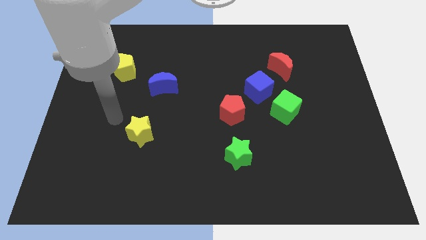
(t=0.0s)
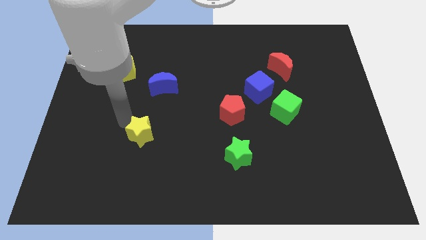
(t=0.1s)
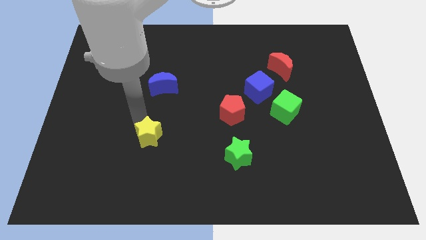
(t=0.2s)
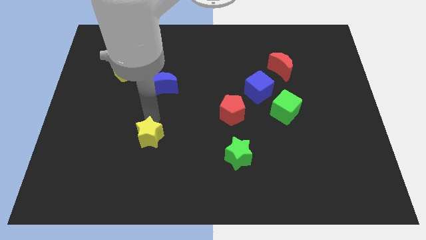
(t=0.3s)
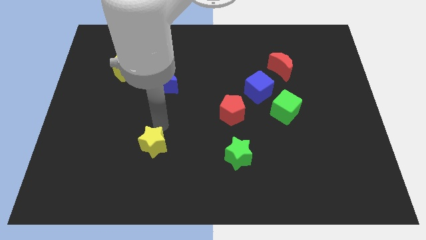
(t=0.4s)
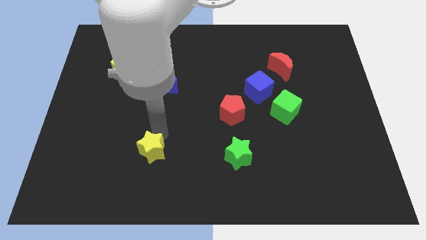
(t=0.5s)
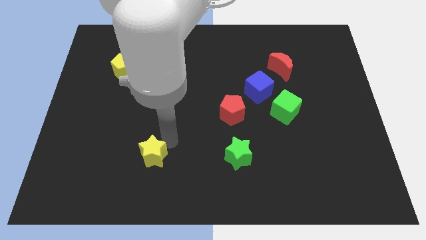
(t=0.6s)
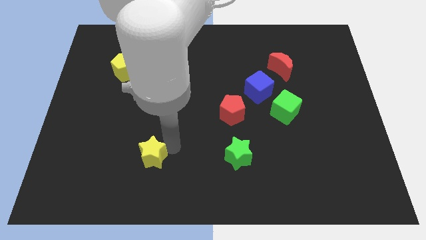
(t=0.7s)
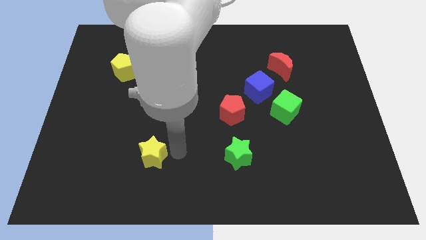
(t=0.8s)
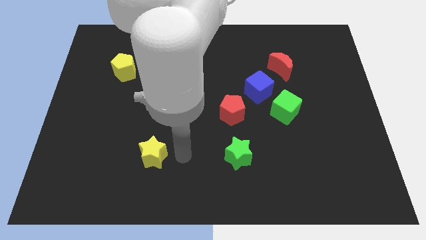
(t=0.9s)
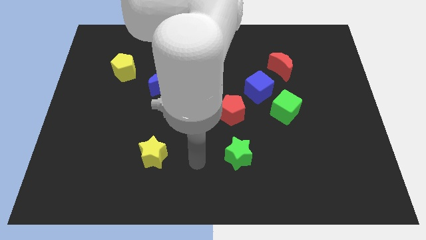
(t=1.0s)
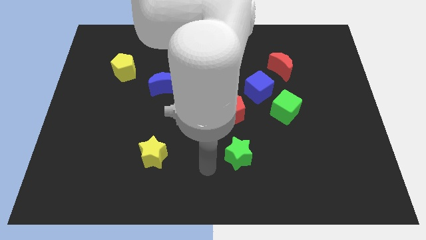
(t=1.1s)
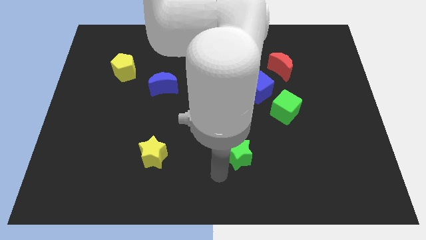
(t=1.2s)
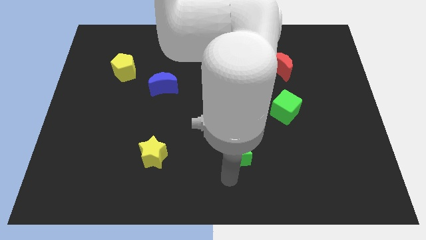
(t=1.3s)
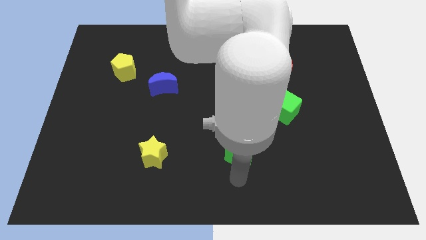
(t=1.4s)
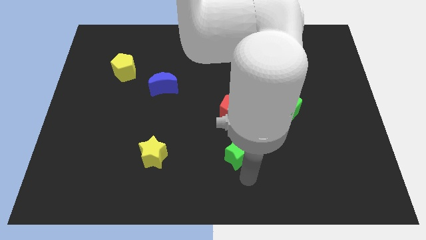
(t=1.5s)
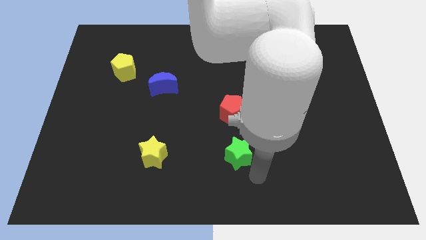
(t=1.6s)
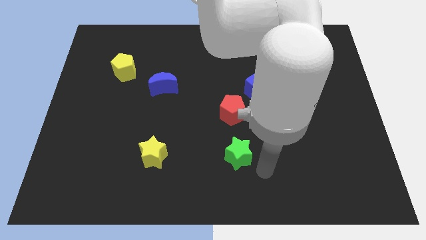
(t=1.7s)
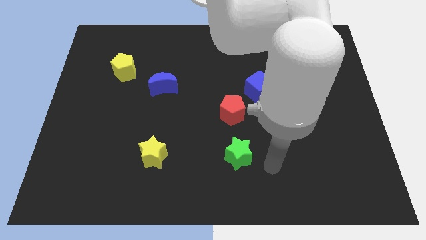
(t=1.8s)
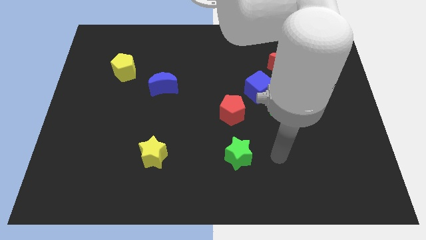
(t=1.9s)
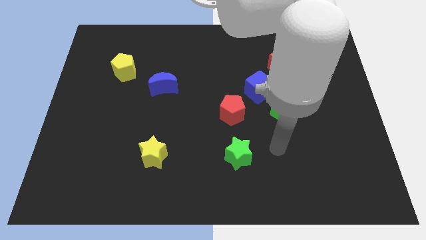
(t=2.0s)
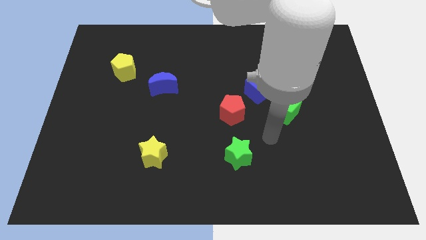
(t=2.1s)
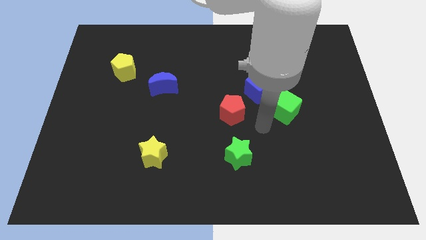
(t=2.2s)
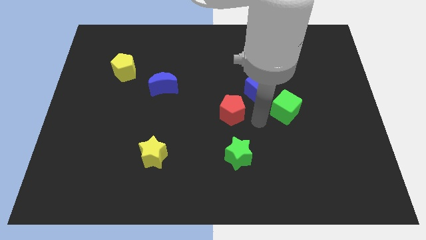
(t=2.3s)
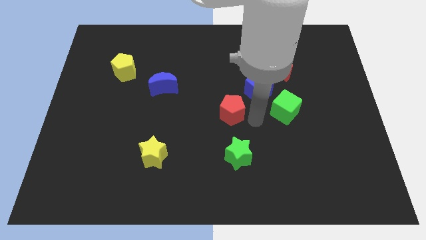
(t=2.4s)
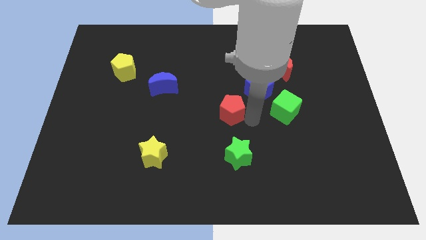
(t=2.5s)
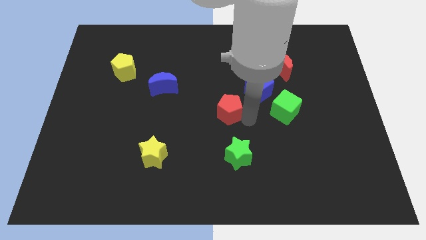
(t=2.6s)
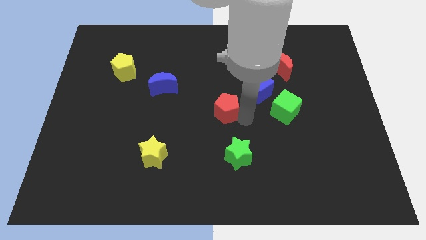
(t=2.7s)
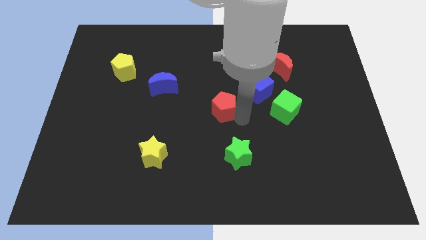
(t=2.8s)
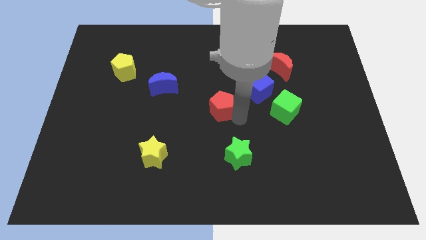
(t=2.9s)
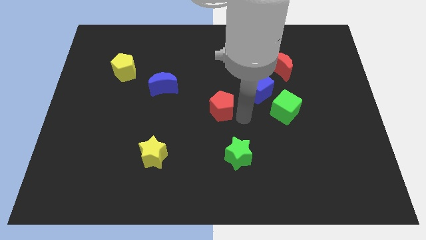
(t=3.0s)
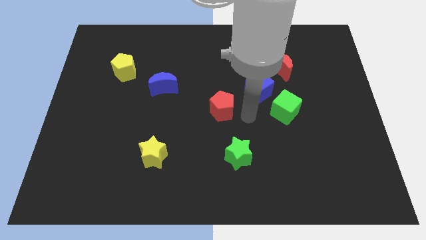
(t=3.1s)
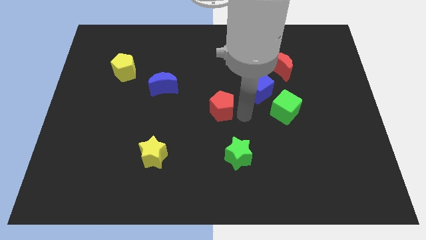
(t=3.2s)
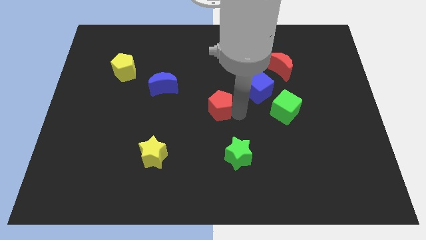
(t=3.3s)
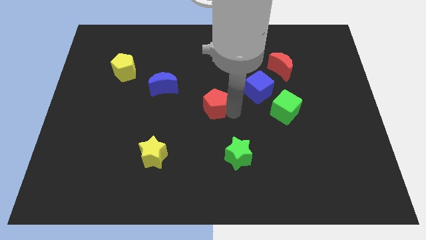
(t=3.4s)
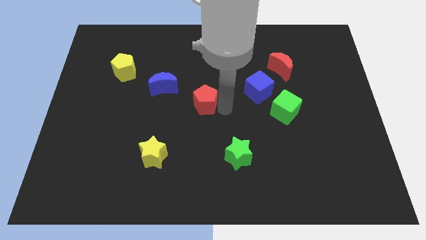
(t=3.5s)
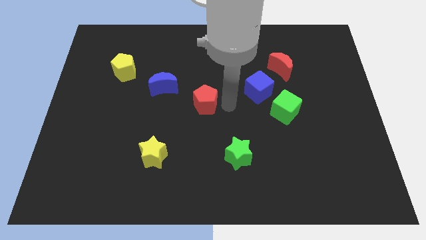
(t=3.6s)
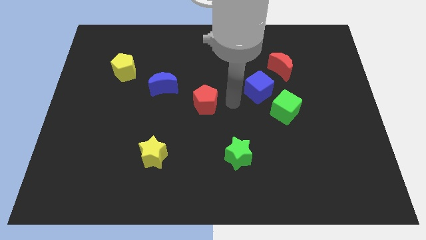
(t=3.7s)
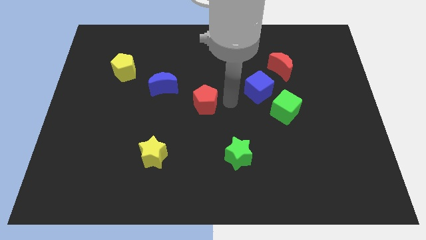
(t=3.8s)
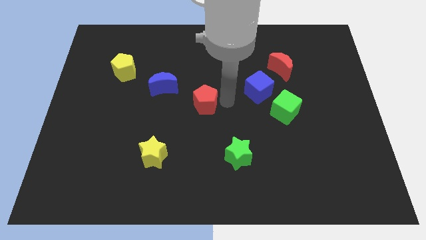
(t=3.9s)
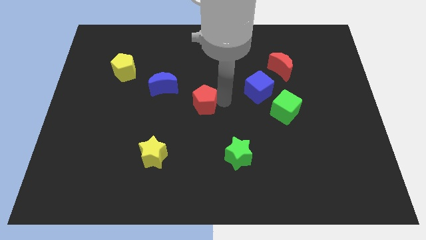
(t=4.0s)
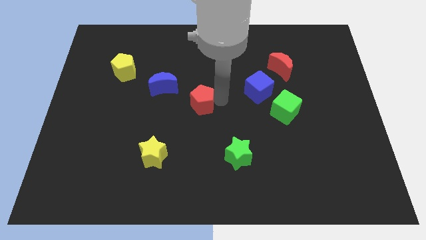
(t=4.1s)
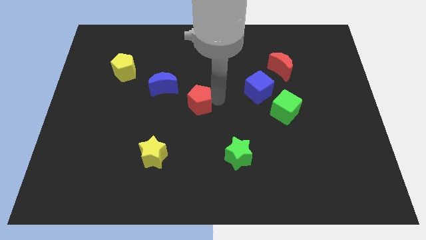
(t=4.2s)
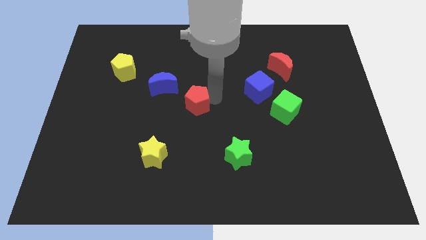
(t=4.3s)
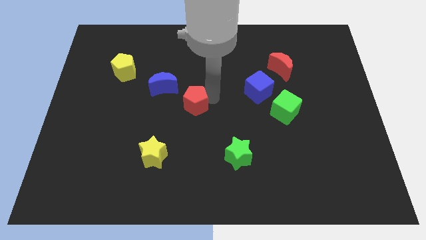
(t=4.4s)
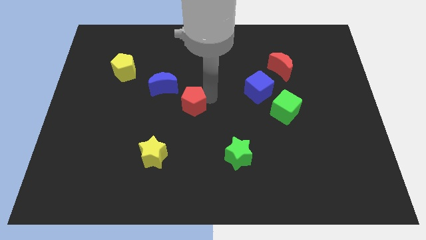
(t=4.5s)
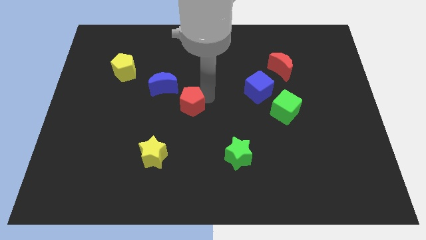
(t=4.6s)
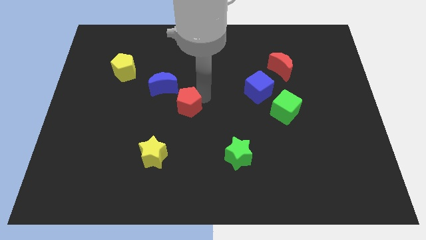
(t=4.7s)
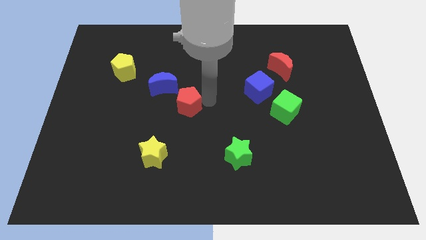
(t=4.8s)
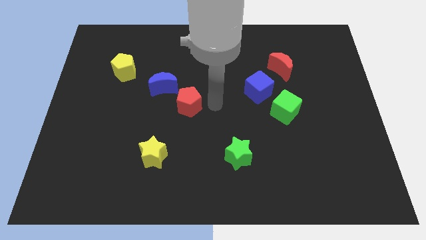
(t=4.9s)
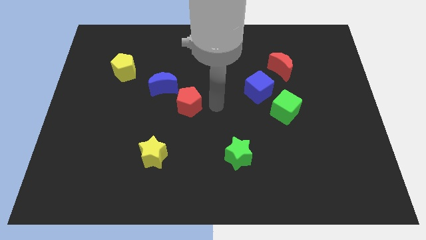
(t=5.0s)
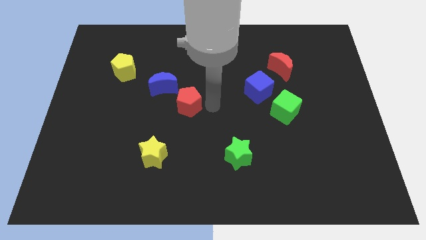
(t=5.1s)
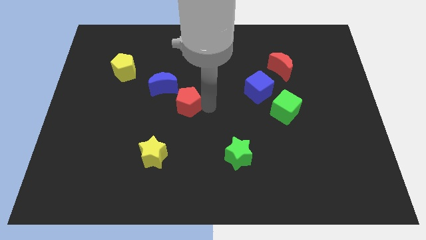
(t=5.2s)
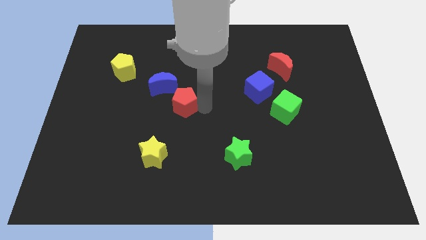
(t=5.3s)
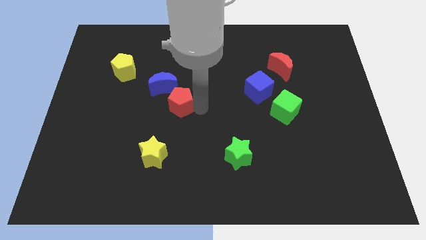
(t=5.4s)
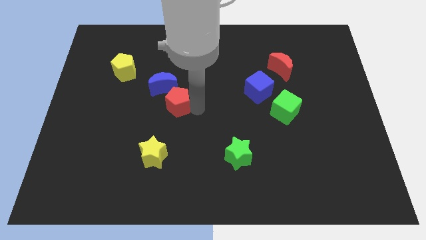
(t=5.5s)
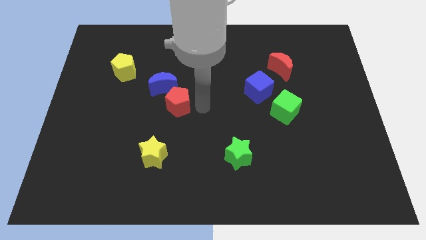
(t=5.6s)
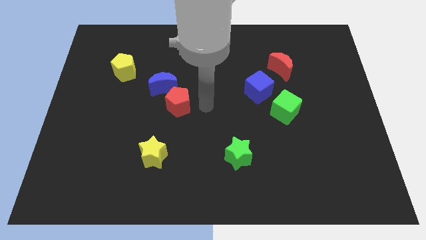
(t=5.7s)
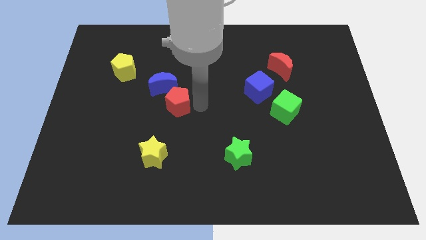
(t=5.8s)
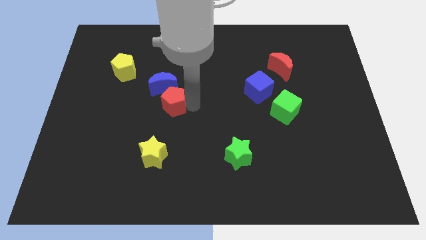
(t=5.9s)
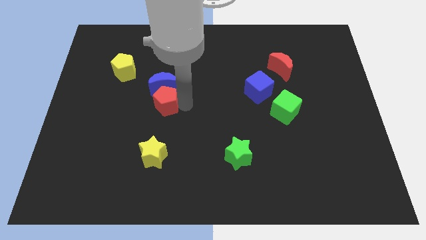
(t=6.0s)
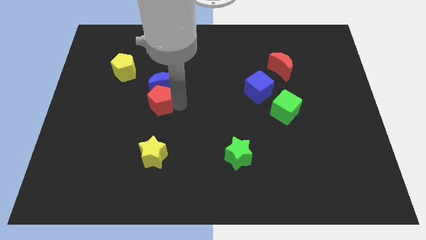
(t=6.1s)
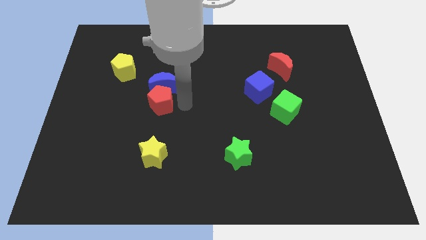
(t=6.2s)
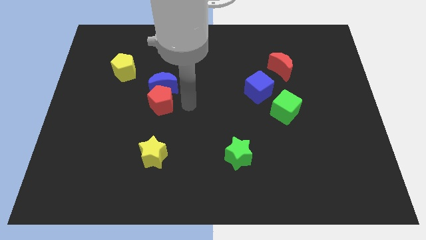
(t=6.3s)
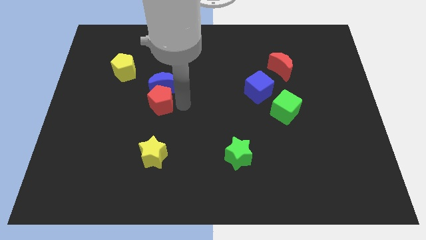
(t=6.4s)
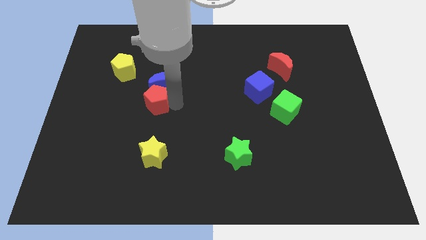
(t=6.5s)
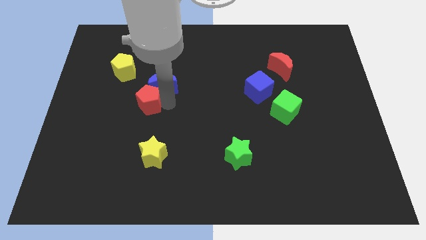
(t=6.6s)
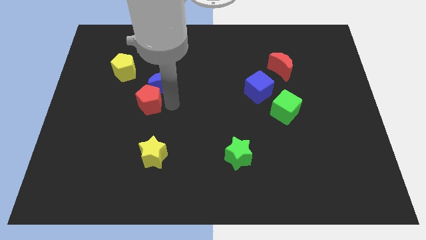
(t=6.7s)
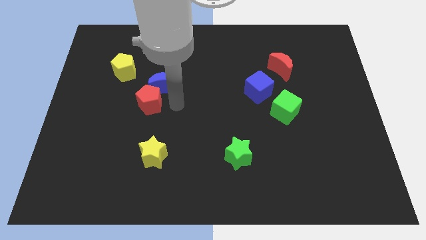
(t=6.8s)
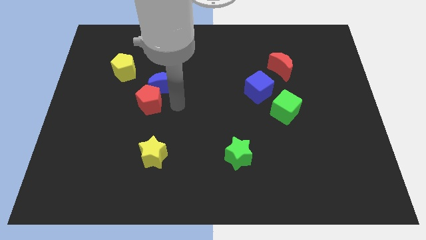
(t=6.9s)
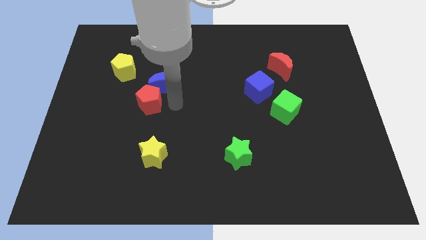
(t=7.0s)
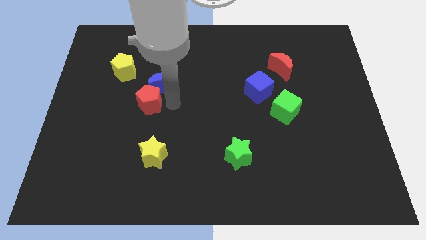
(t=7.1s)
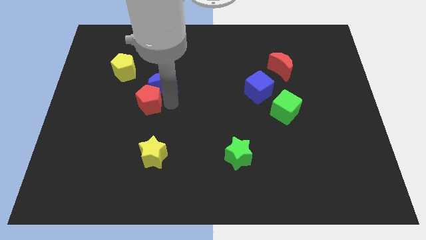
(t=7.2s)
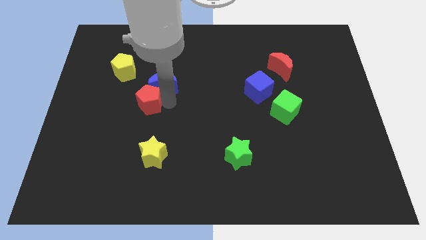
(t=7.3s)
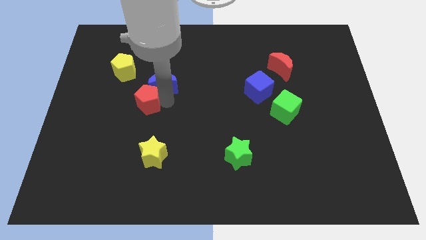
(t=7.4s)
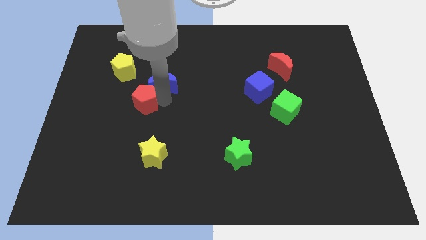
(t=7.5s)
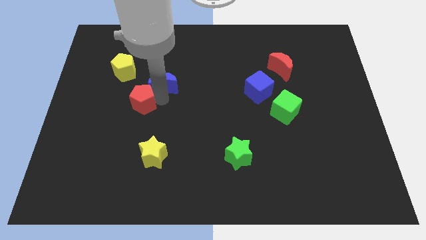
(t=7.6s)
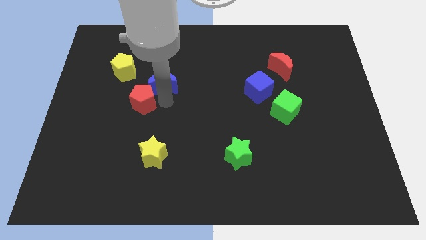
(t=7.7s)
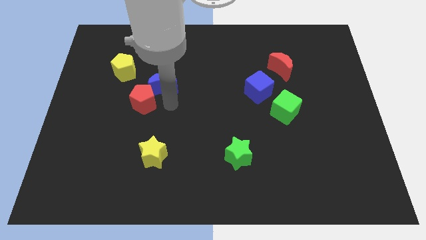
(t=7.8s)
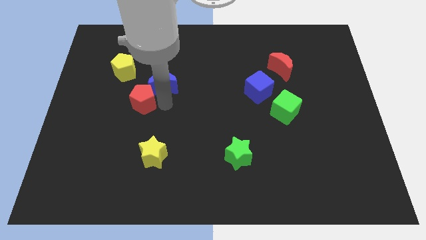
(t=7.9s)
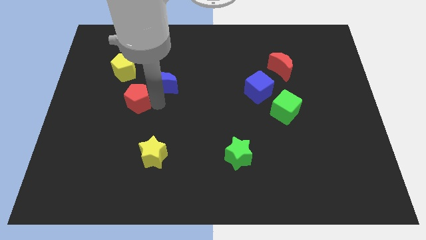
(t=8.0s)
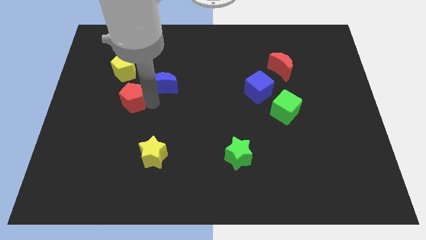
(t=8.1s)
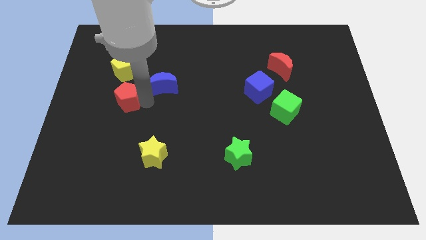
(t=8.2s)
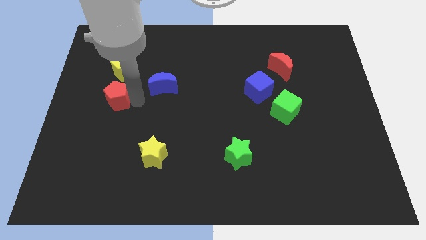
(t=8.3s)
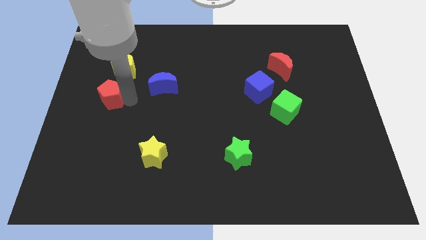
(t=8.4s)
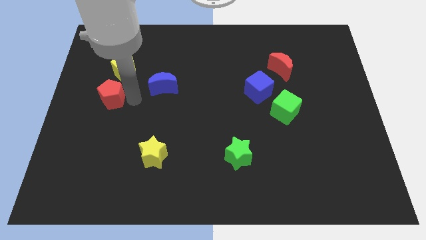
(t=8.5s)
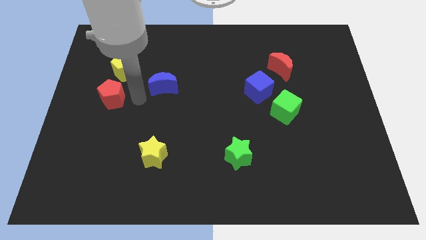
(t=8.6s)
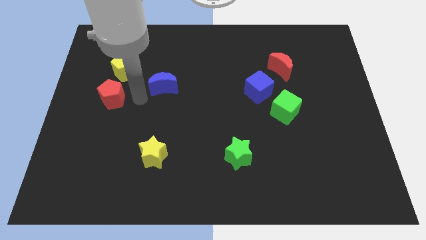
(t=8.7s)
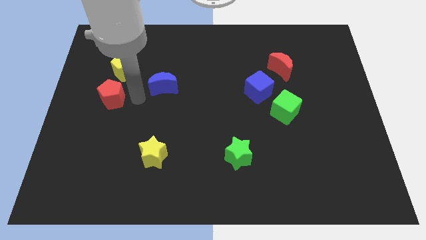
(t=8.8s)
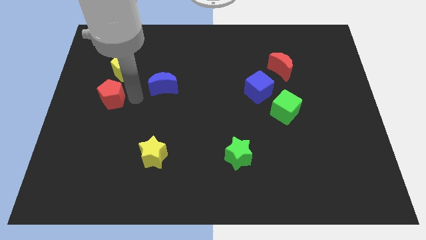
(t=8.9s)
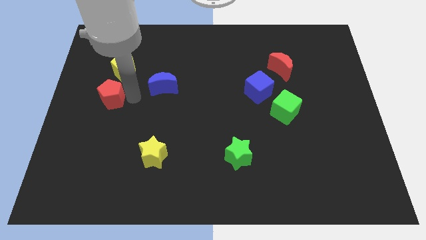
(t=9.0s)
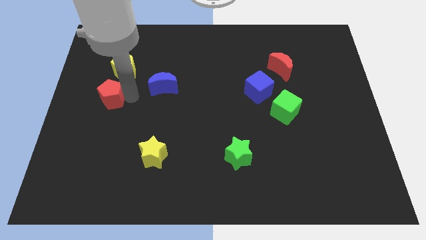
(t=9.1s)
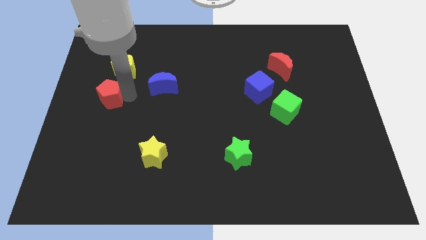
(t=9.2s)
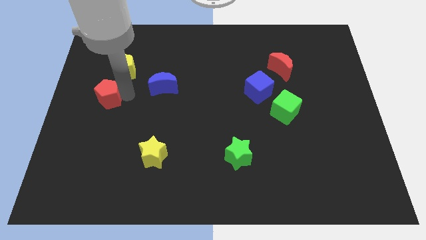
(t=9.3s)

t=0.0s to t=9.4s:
slide the red pentagon to the left side of the board
